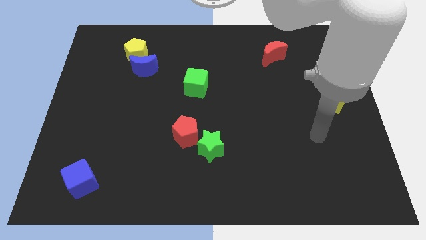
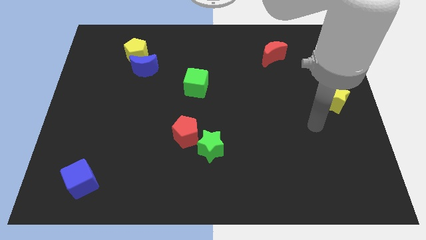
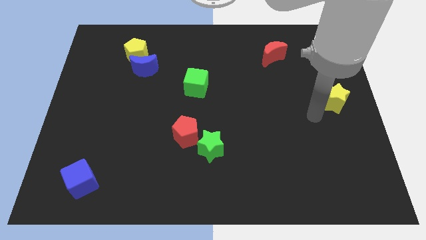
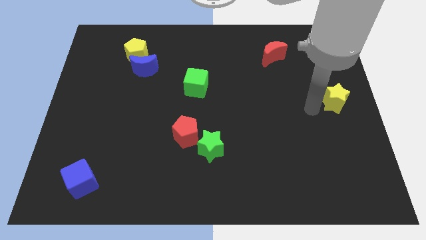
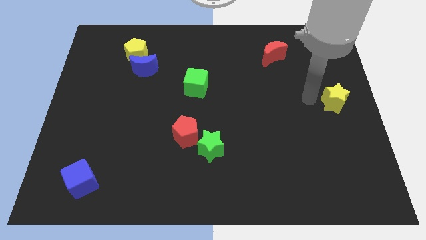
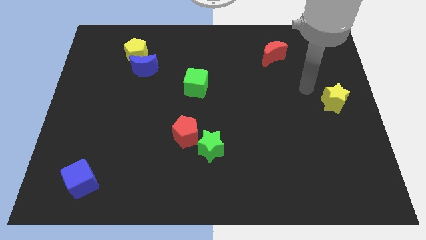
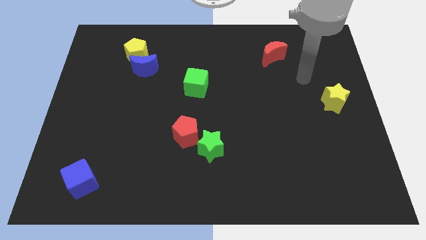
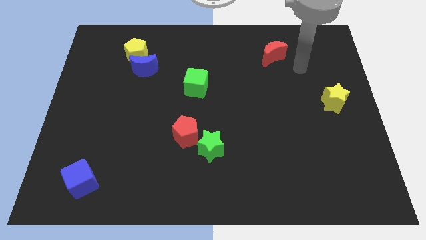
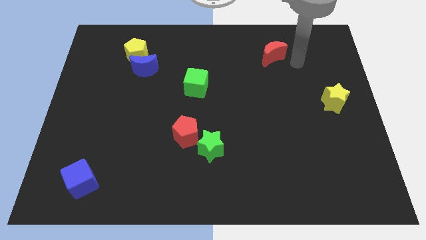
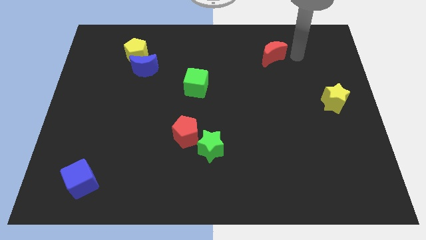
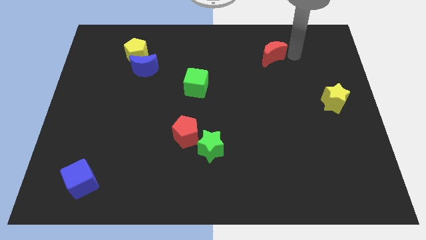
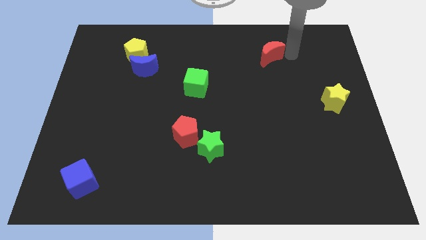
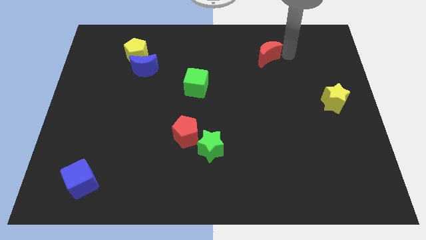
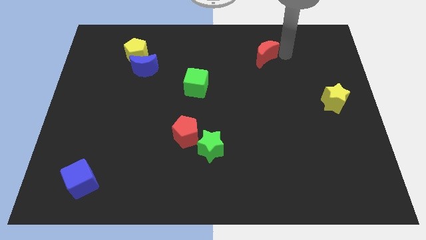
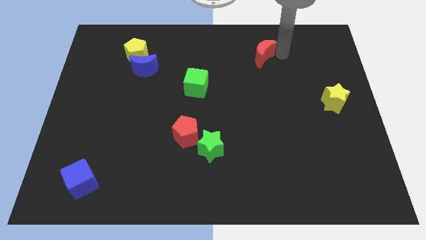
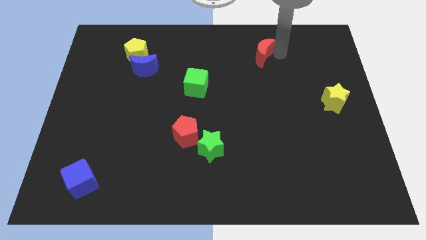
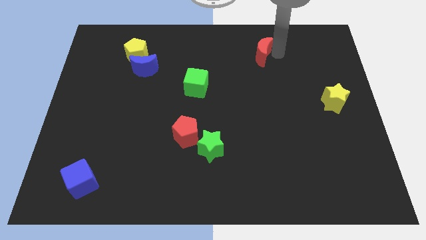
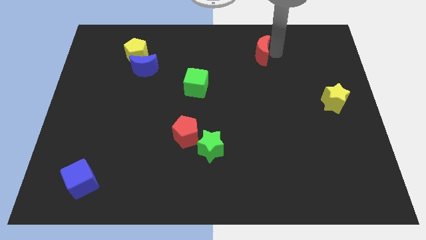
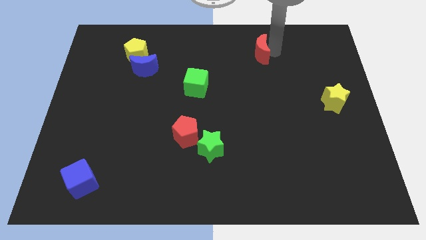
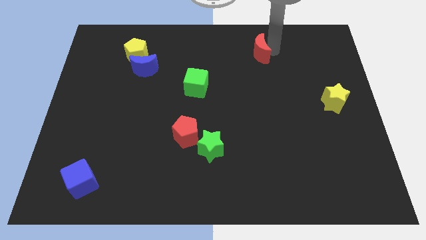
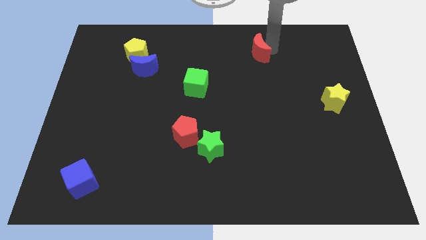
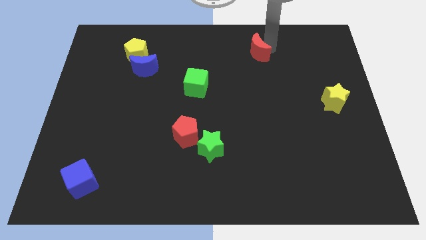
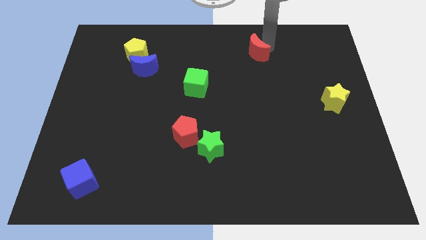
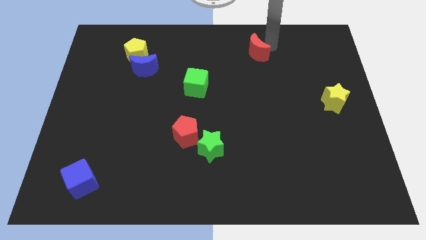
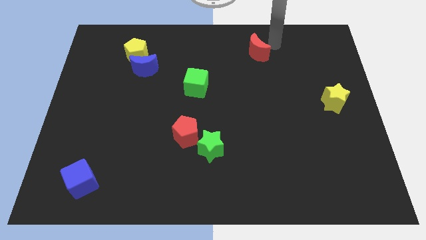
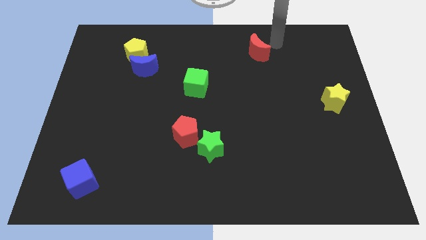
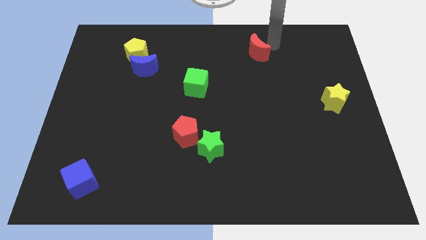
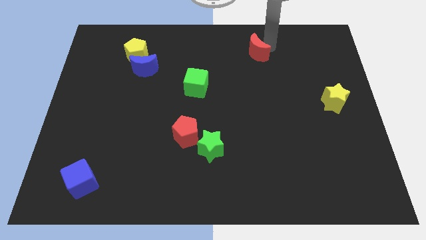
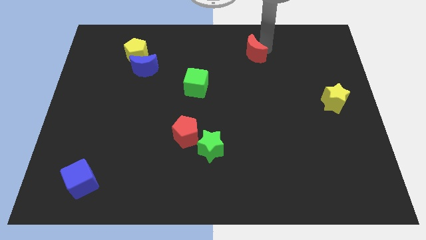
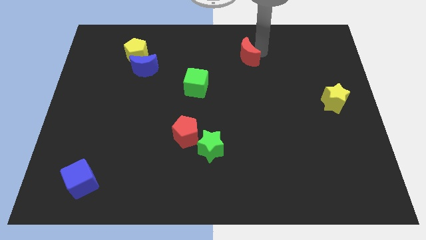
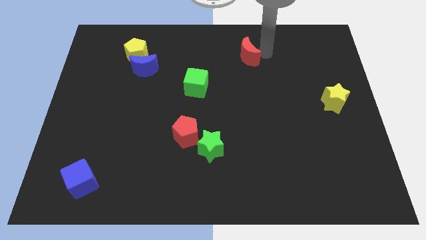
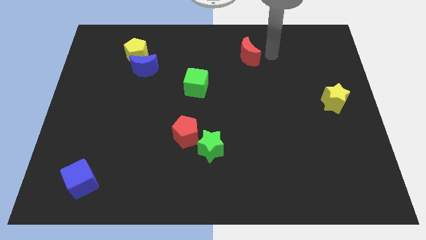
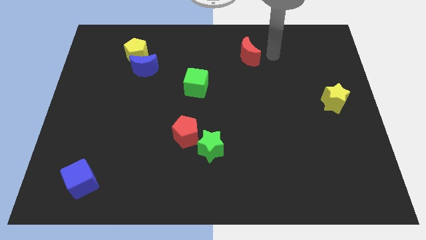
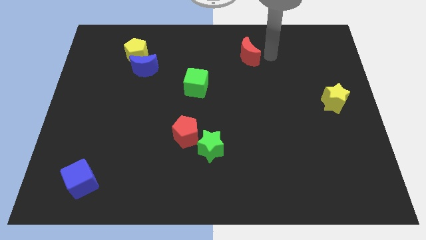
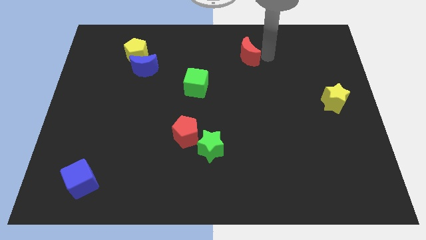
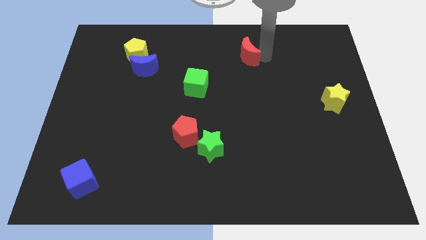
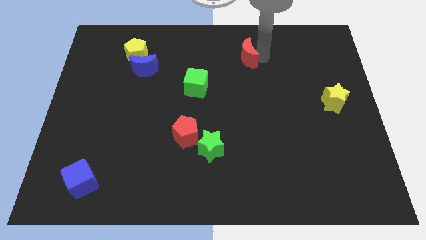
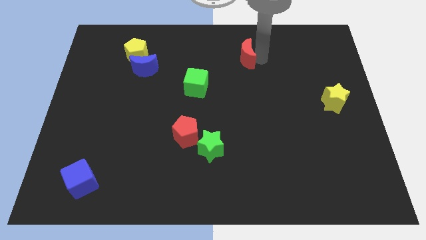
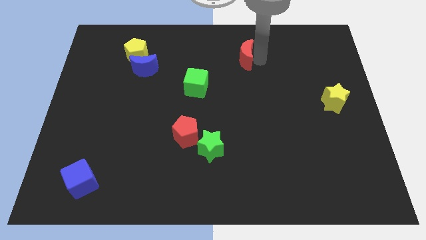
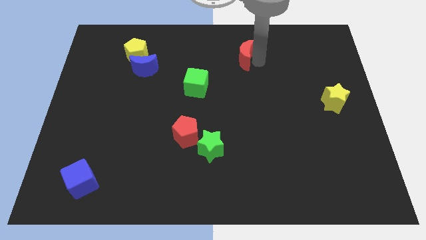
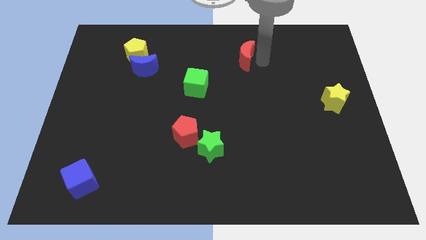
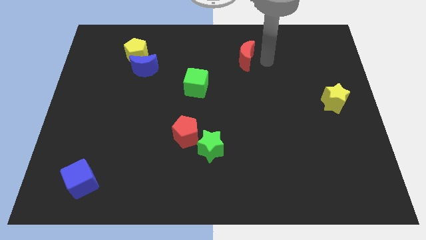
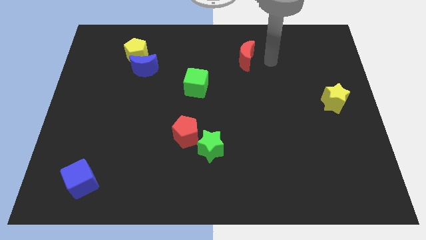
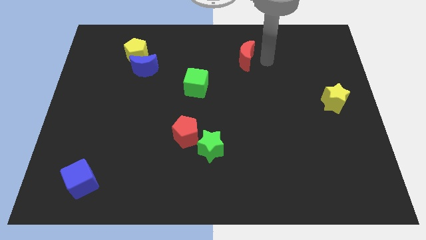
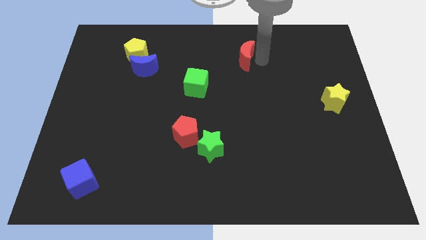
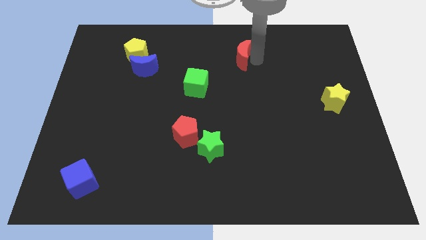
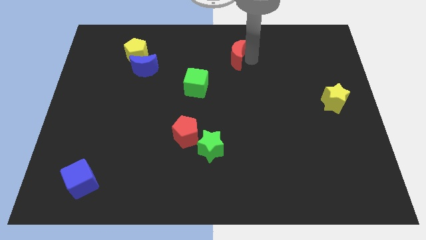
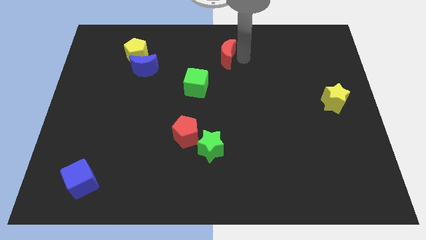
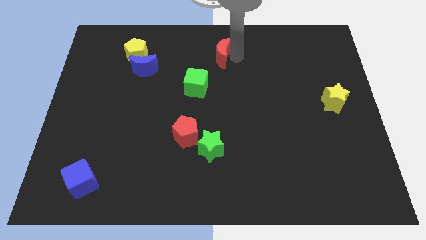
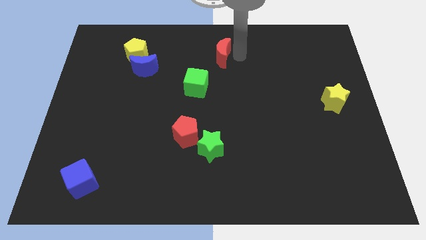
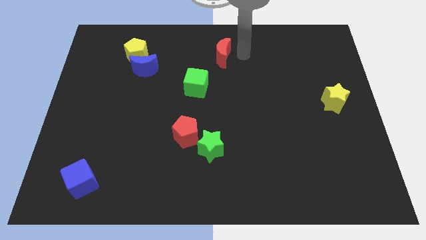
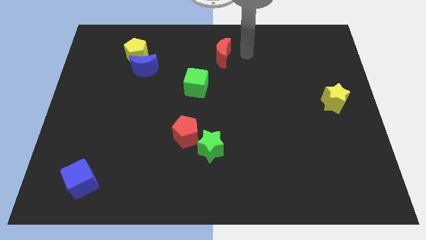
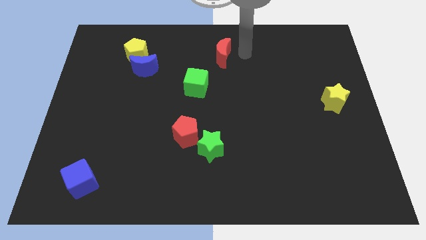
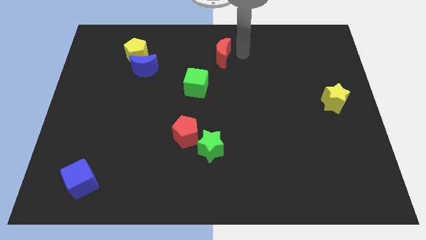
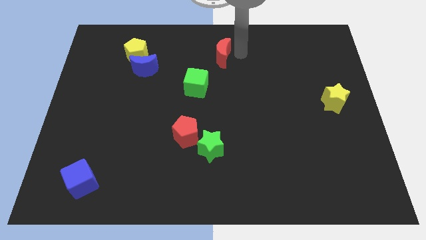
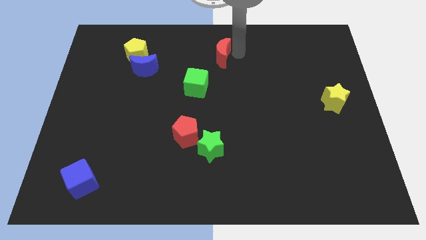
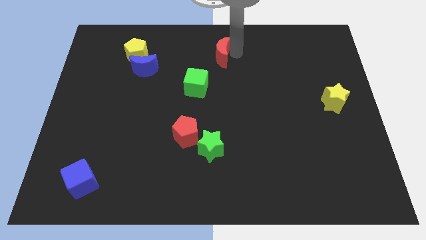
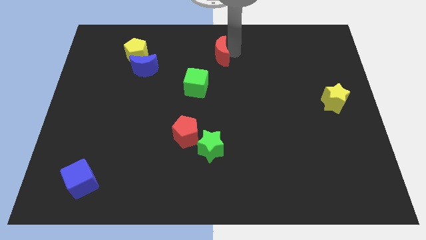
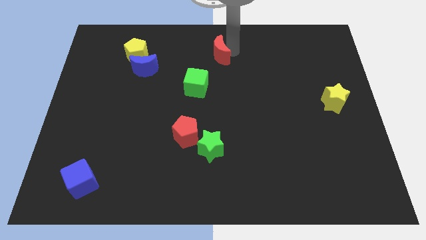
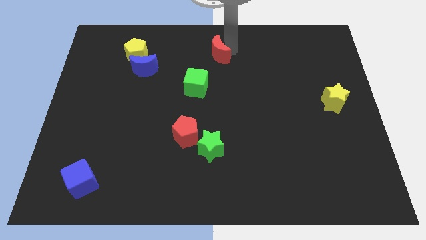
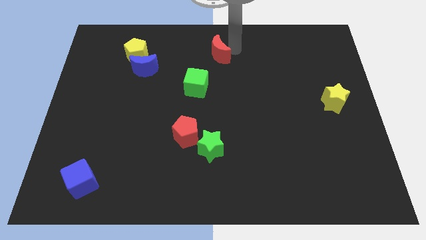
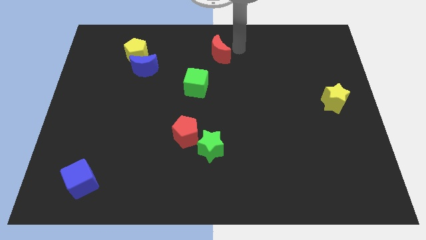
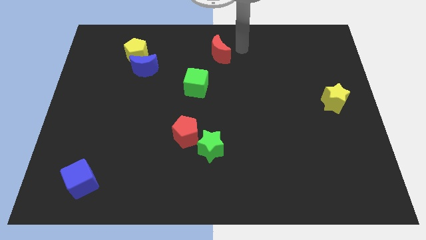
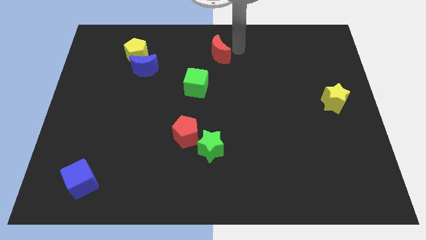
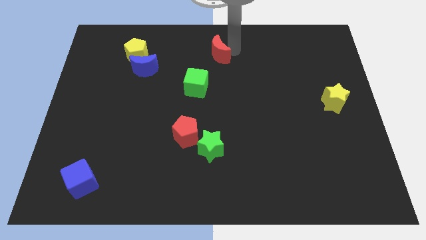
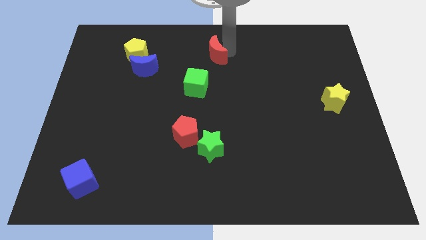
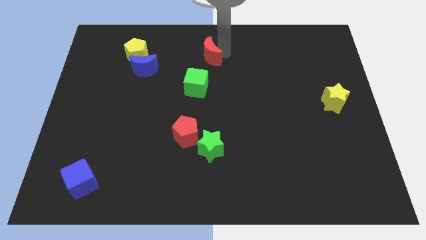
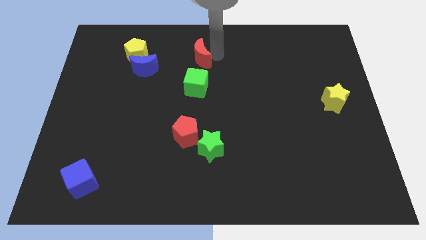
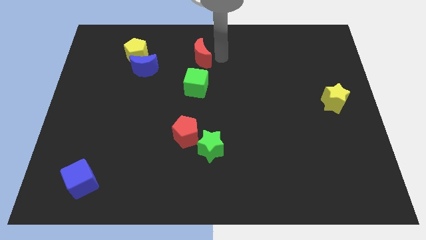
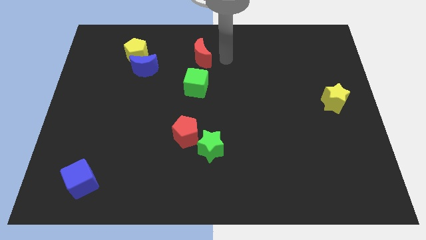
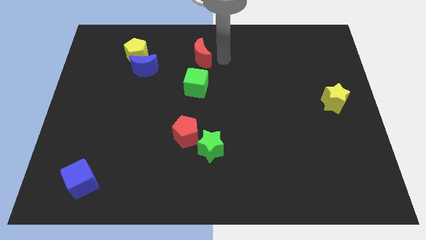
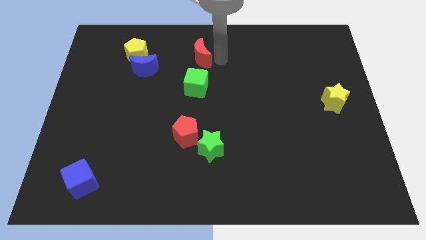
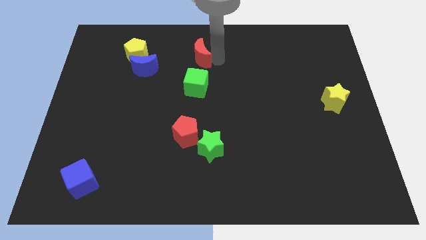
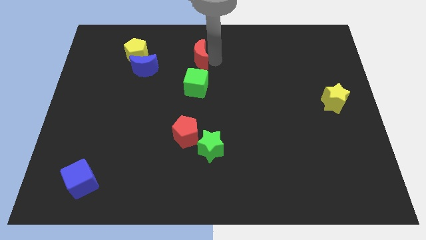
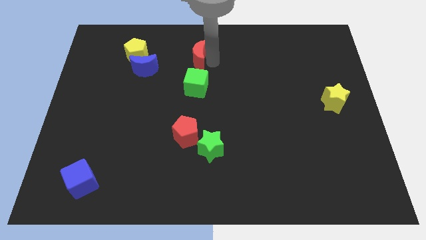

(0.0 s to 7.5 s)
move the red moon to the right side of the yellow pentagon
